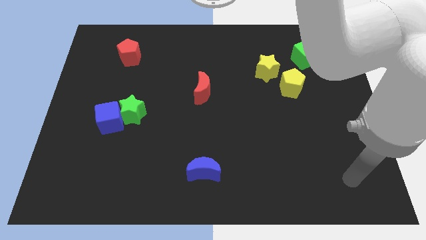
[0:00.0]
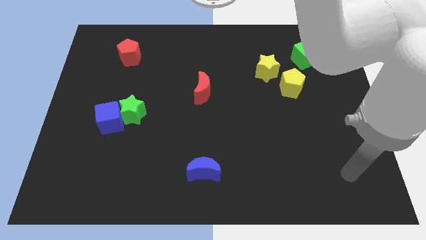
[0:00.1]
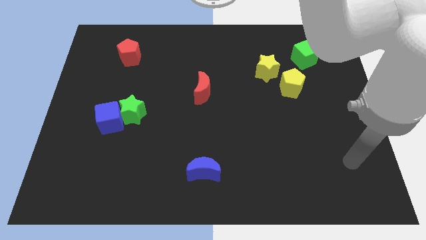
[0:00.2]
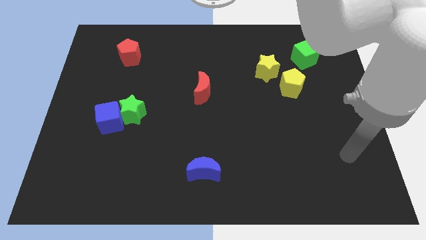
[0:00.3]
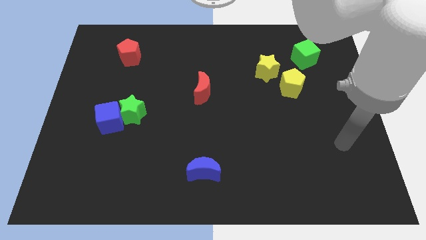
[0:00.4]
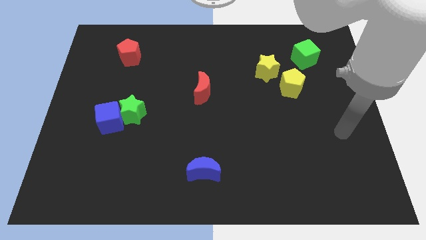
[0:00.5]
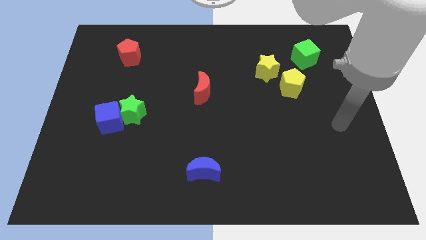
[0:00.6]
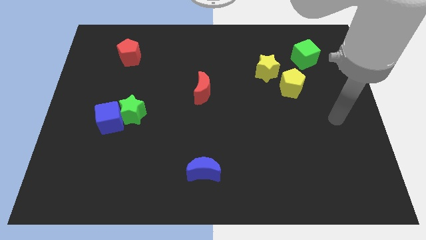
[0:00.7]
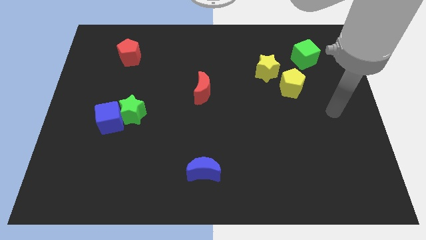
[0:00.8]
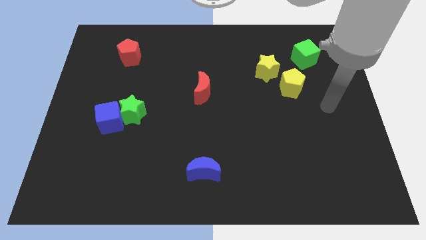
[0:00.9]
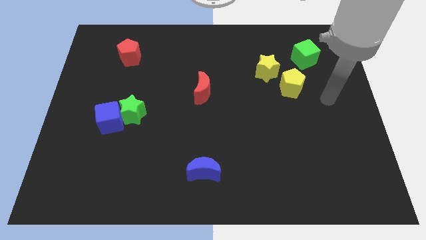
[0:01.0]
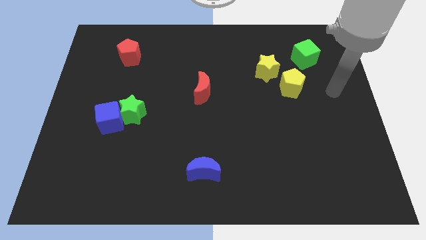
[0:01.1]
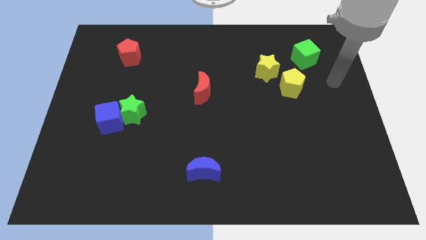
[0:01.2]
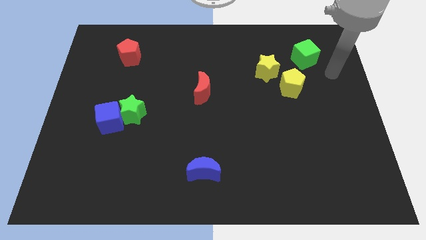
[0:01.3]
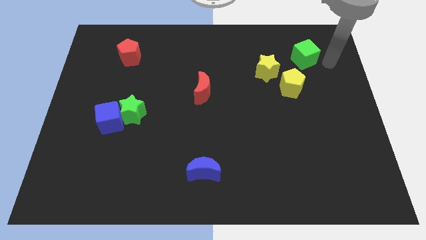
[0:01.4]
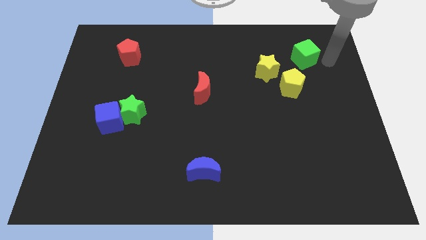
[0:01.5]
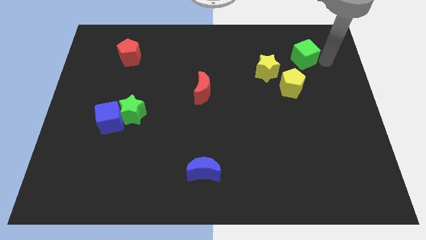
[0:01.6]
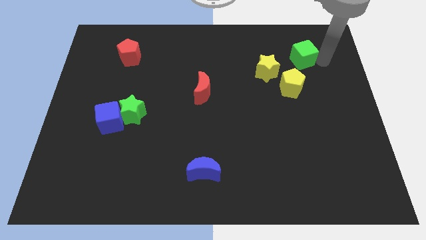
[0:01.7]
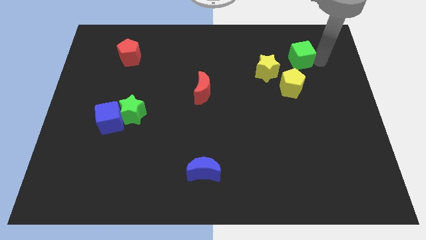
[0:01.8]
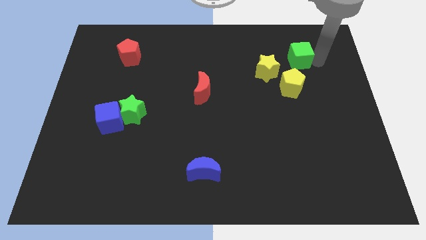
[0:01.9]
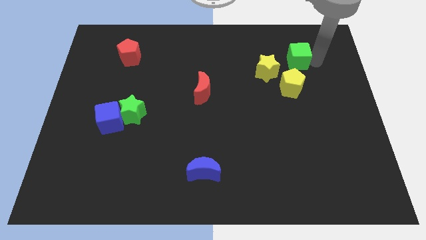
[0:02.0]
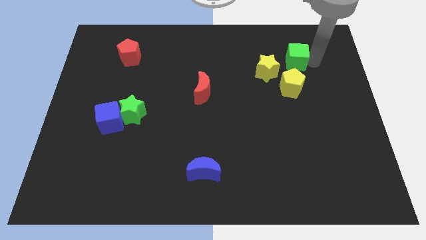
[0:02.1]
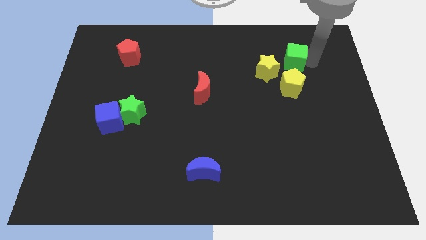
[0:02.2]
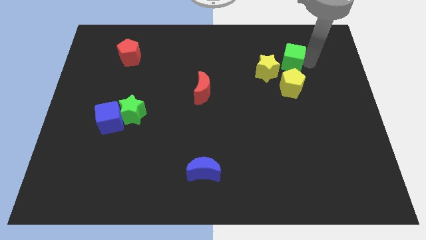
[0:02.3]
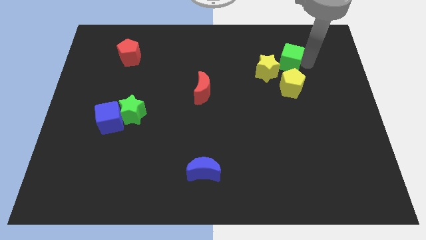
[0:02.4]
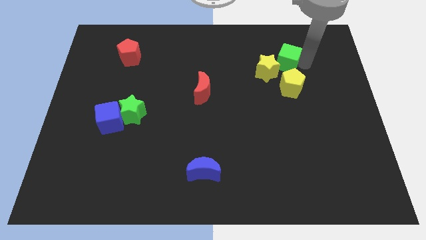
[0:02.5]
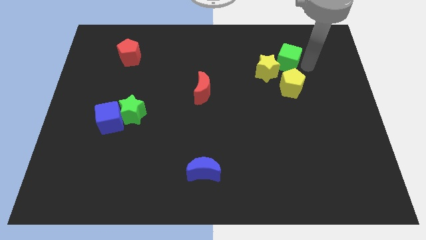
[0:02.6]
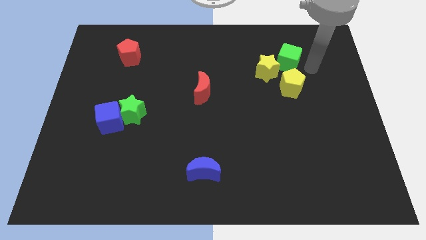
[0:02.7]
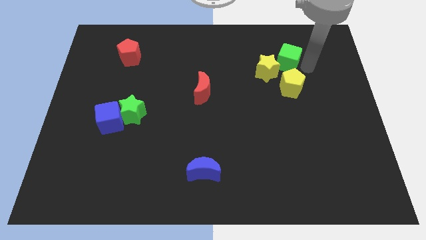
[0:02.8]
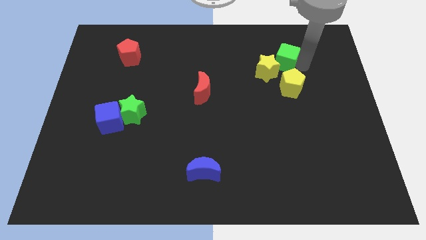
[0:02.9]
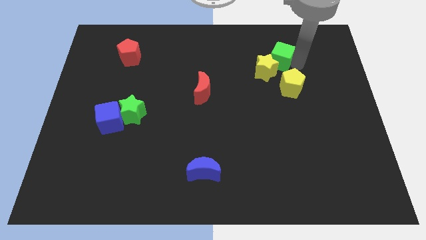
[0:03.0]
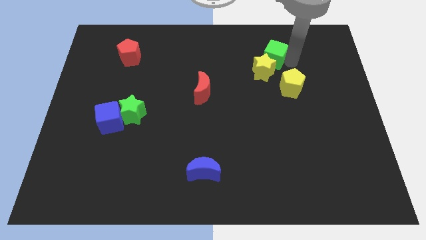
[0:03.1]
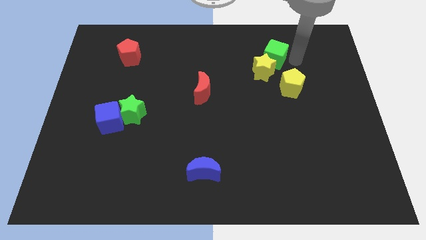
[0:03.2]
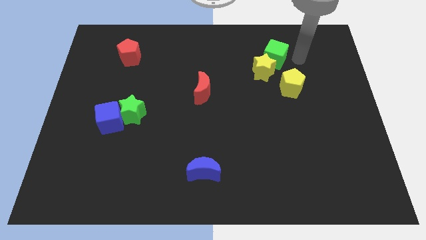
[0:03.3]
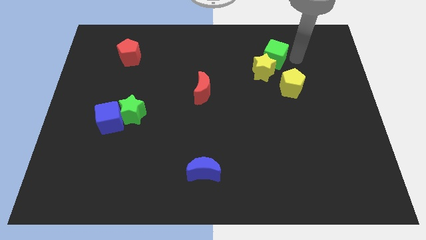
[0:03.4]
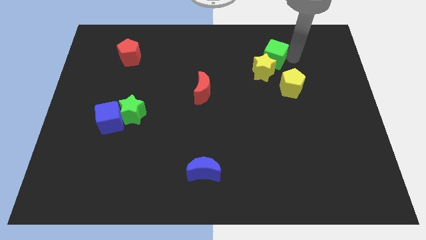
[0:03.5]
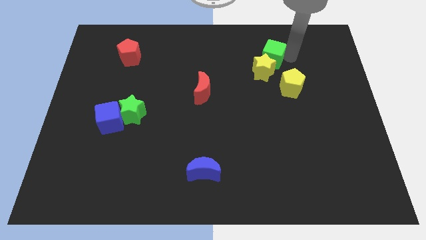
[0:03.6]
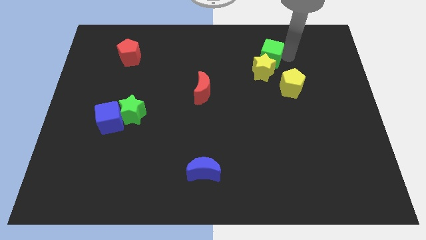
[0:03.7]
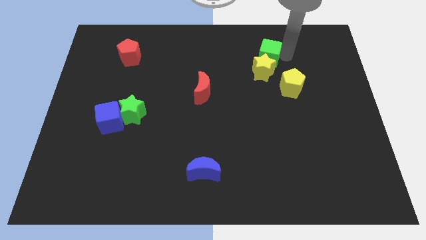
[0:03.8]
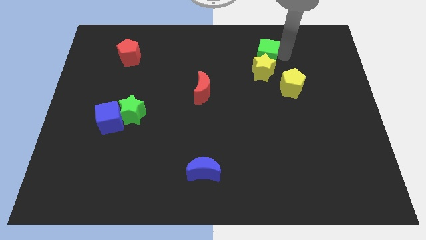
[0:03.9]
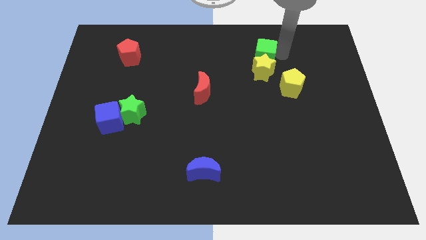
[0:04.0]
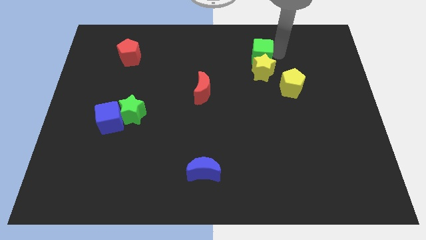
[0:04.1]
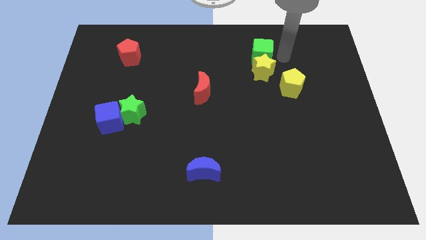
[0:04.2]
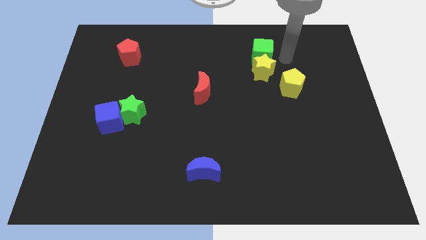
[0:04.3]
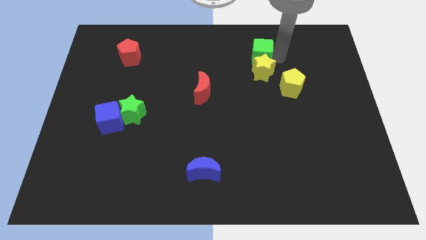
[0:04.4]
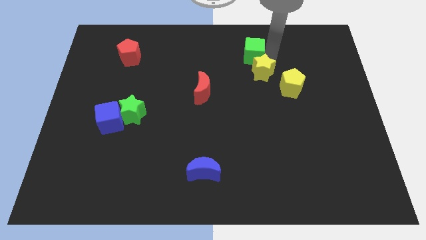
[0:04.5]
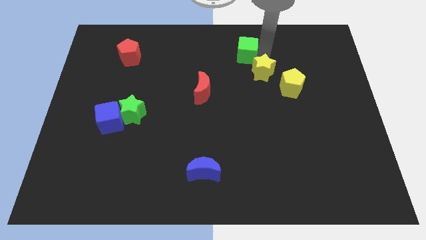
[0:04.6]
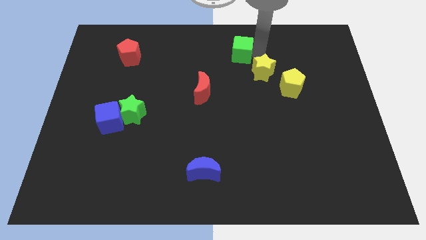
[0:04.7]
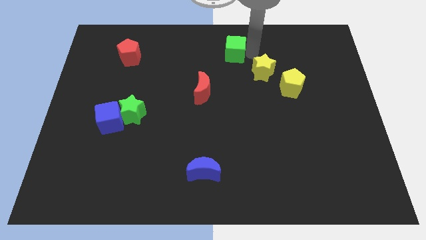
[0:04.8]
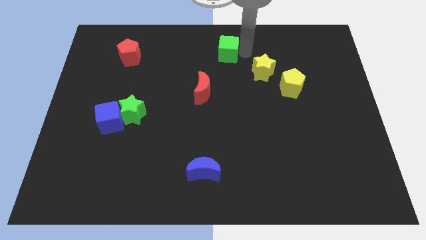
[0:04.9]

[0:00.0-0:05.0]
push the green cube left

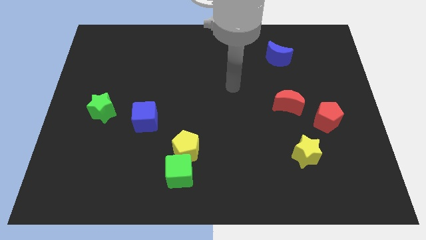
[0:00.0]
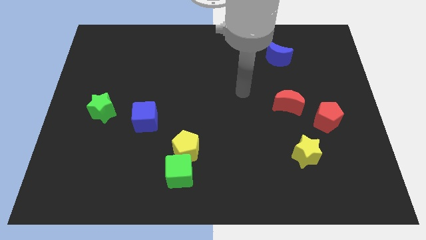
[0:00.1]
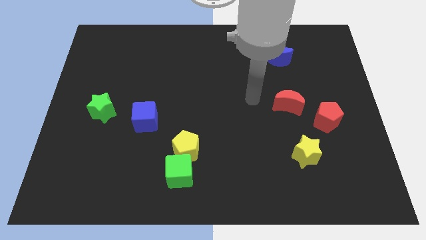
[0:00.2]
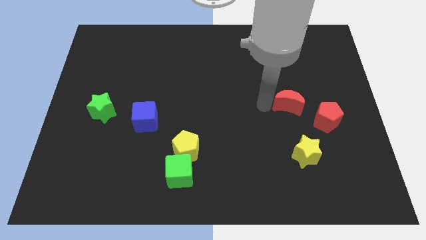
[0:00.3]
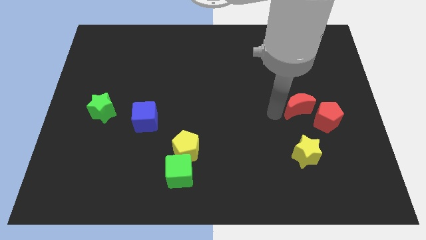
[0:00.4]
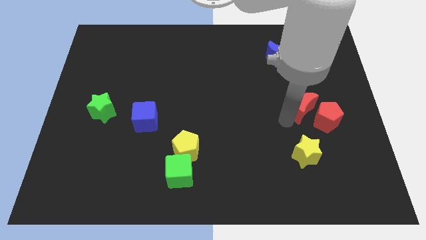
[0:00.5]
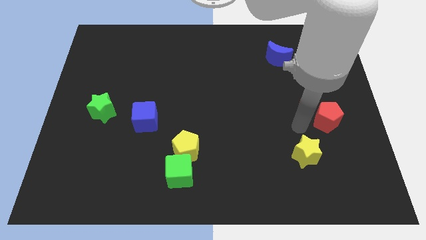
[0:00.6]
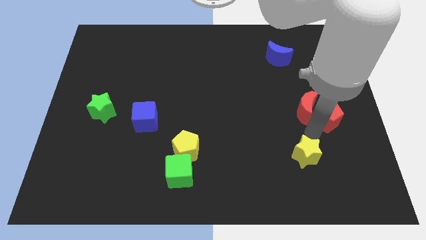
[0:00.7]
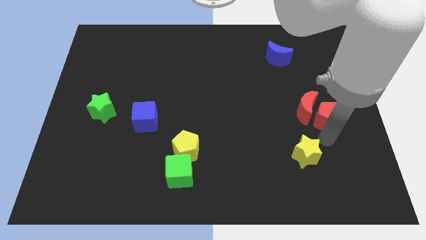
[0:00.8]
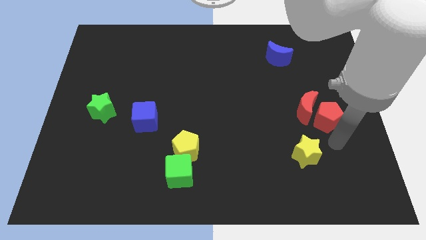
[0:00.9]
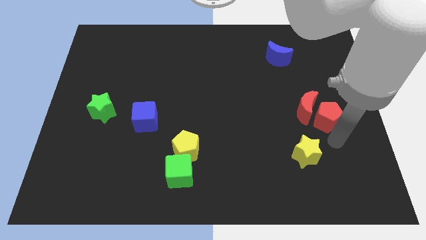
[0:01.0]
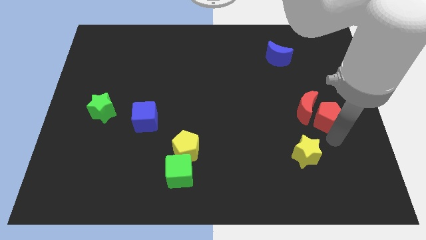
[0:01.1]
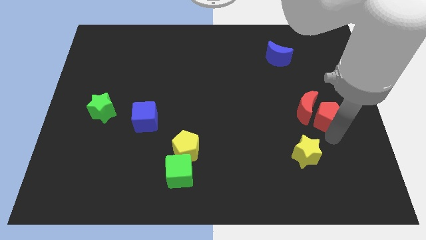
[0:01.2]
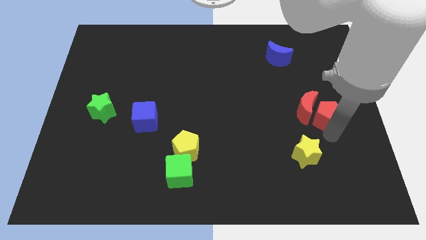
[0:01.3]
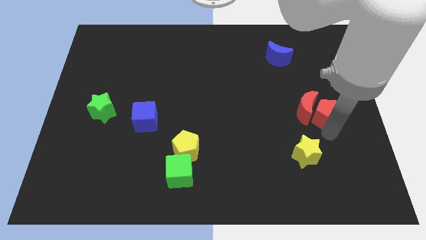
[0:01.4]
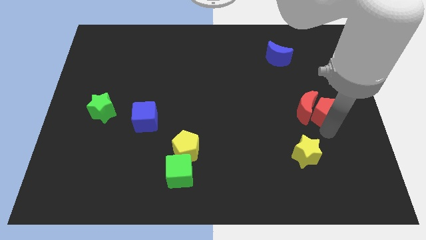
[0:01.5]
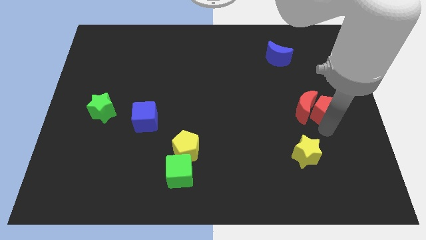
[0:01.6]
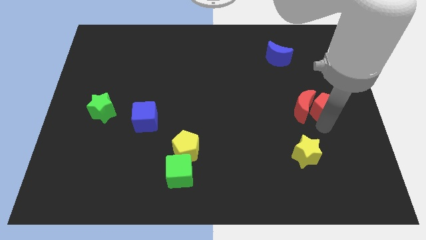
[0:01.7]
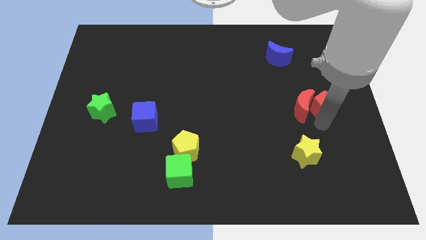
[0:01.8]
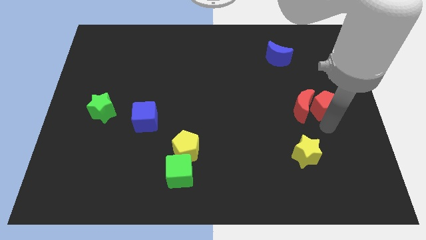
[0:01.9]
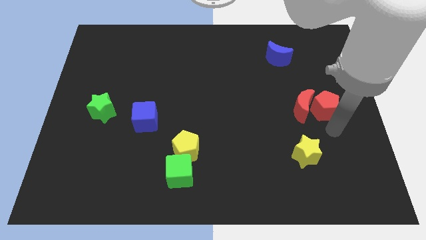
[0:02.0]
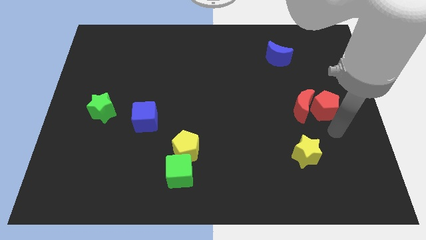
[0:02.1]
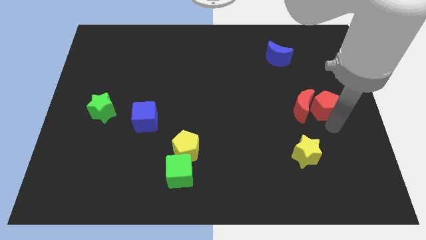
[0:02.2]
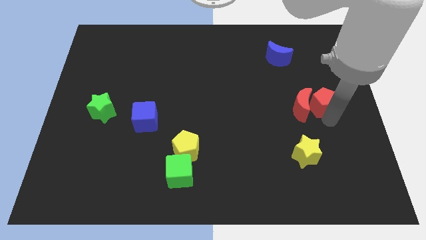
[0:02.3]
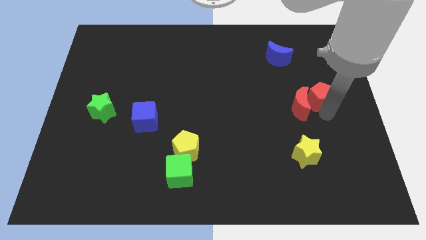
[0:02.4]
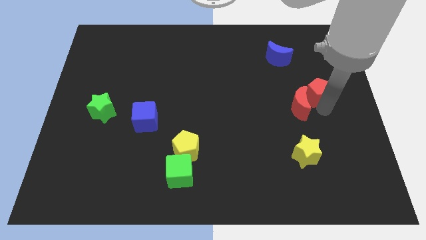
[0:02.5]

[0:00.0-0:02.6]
slightly push the red pentagon upwards

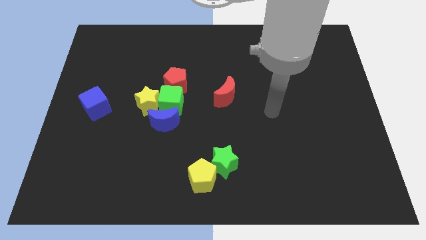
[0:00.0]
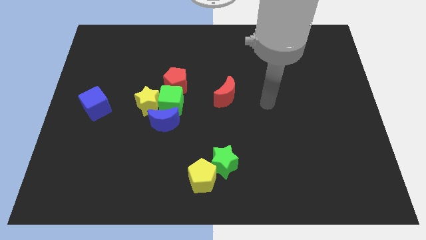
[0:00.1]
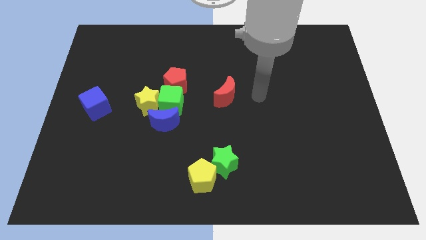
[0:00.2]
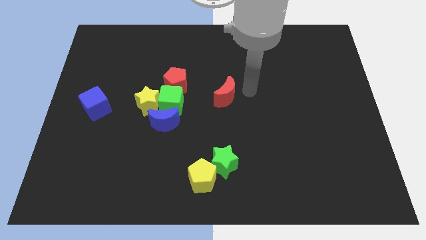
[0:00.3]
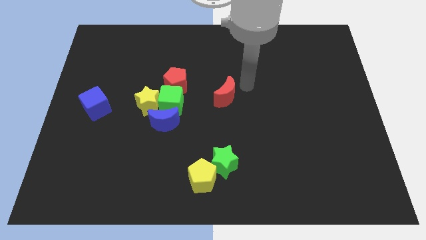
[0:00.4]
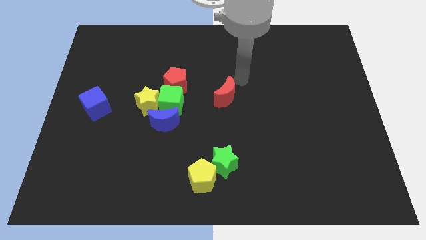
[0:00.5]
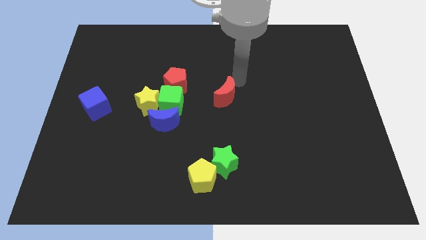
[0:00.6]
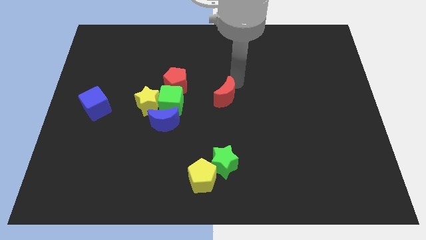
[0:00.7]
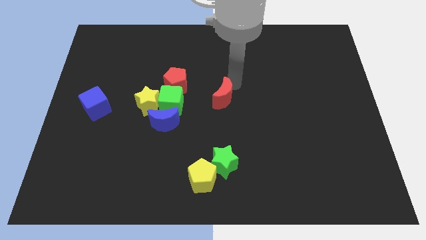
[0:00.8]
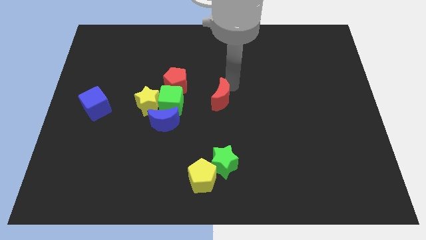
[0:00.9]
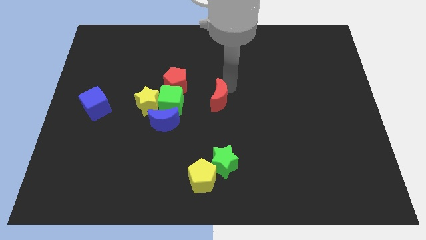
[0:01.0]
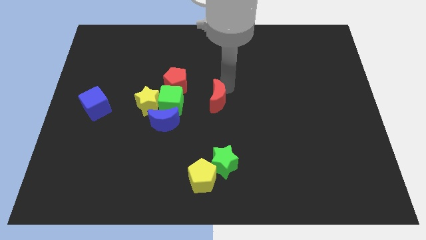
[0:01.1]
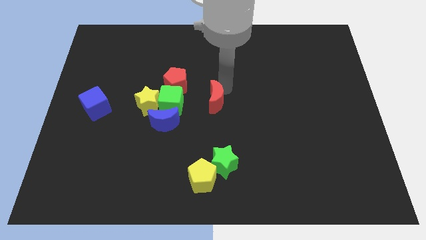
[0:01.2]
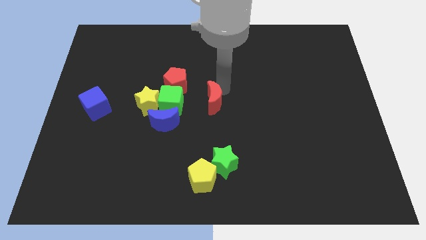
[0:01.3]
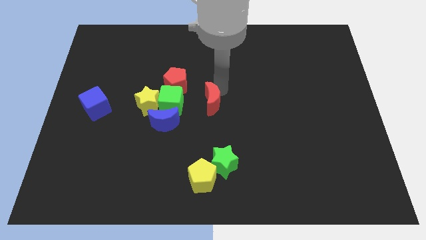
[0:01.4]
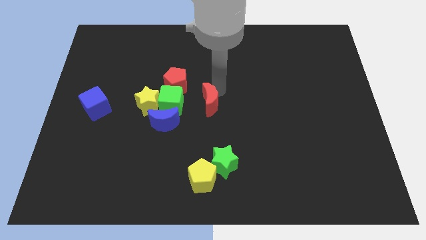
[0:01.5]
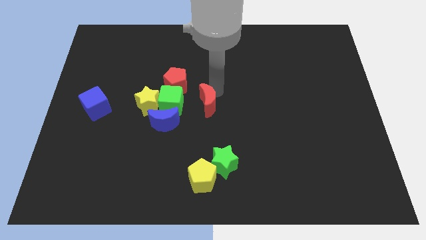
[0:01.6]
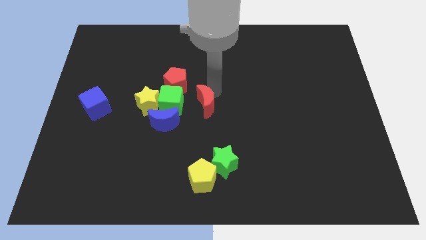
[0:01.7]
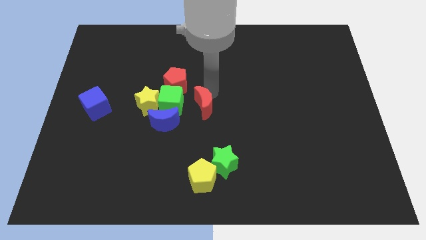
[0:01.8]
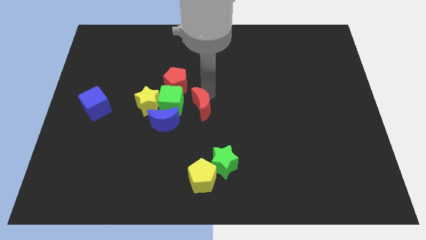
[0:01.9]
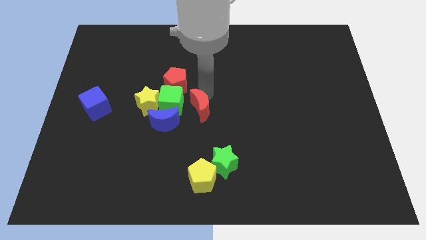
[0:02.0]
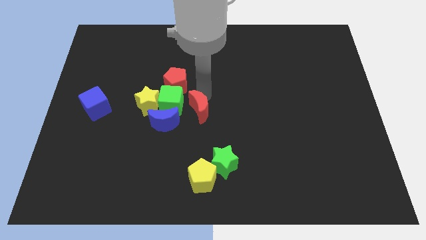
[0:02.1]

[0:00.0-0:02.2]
push the red moon down and to the left a little bit
